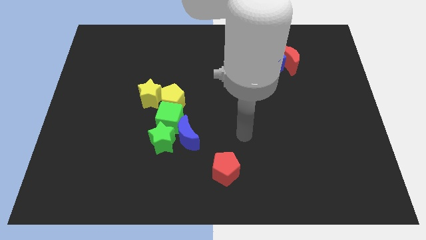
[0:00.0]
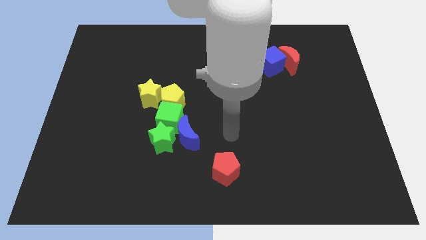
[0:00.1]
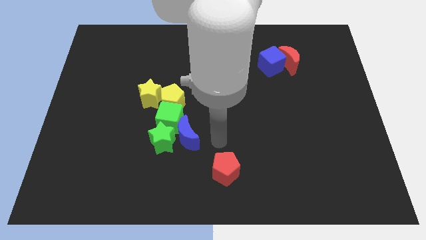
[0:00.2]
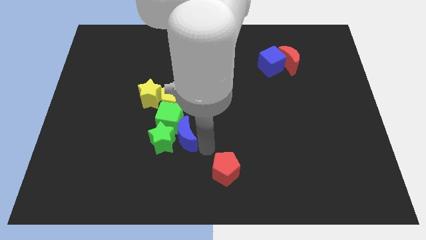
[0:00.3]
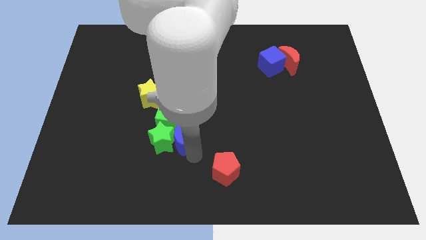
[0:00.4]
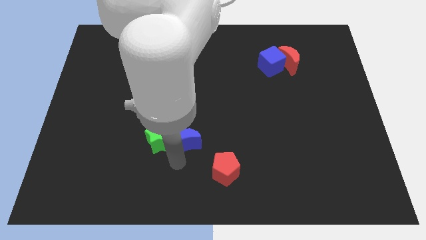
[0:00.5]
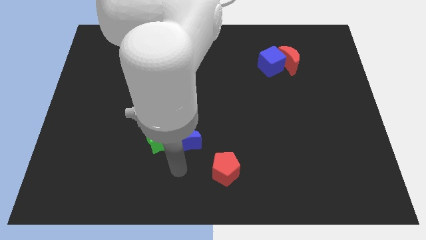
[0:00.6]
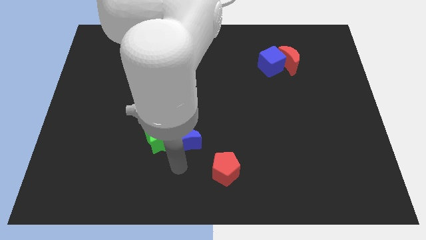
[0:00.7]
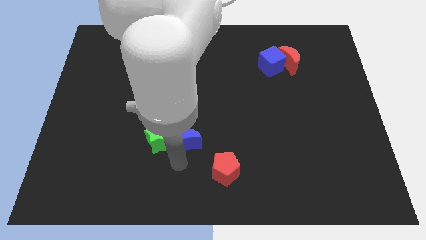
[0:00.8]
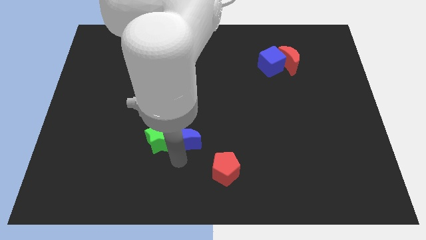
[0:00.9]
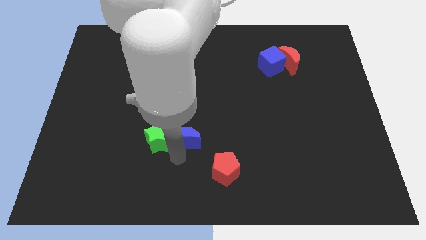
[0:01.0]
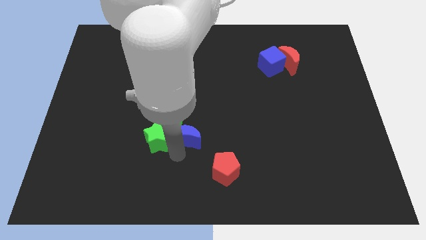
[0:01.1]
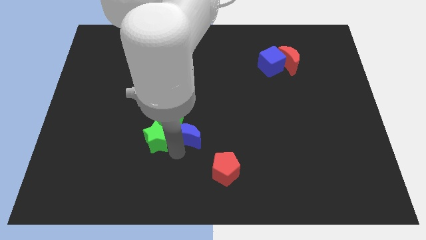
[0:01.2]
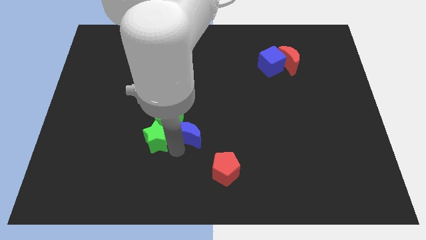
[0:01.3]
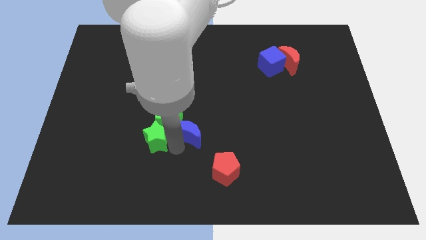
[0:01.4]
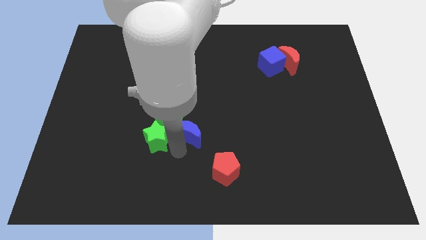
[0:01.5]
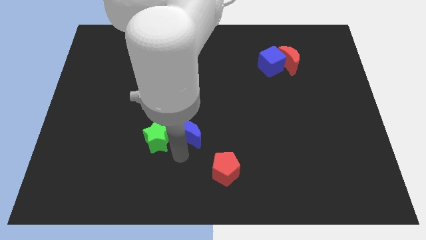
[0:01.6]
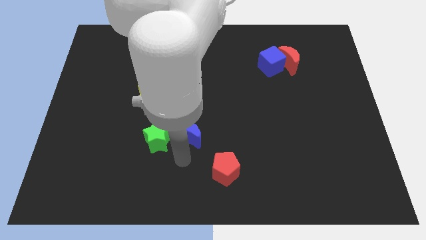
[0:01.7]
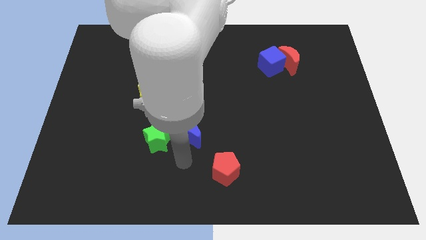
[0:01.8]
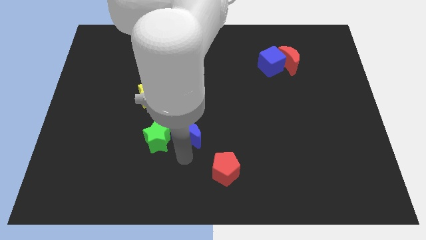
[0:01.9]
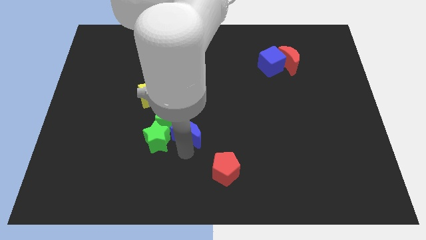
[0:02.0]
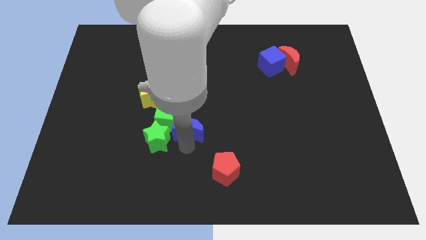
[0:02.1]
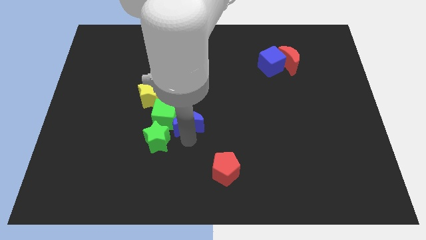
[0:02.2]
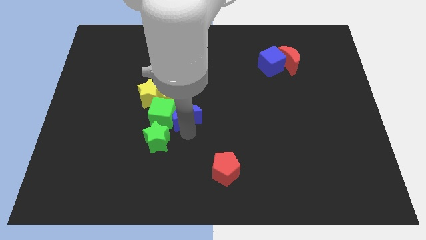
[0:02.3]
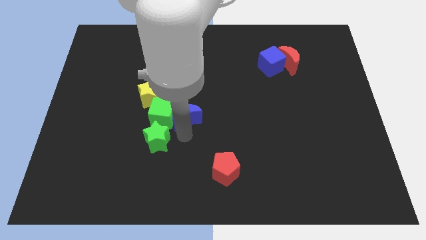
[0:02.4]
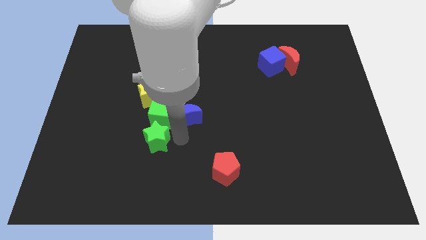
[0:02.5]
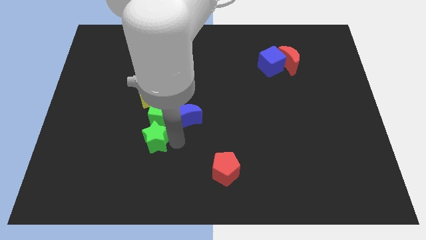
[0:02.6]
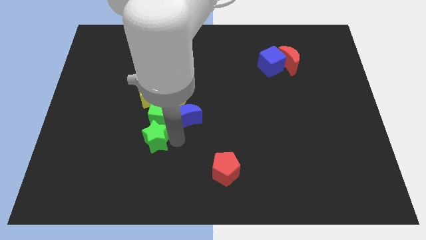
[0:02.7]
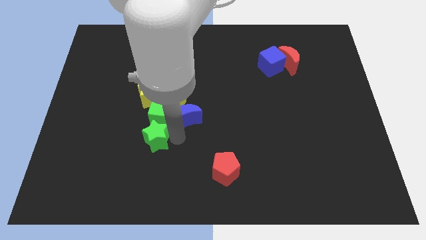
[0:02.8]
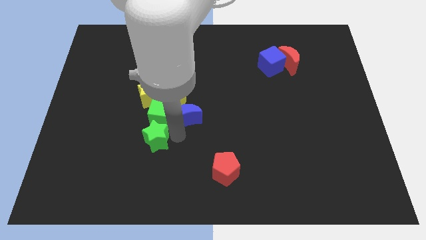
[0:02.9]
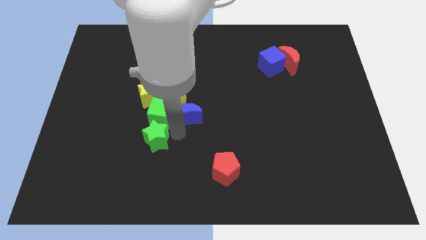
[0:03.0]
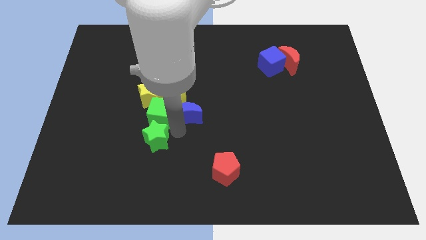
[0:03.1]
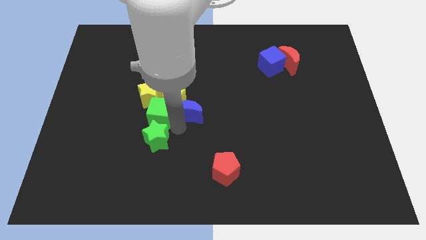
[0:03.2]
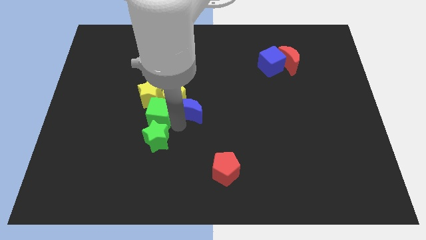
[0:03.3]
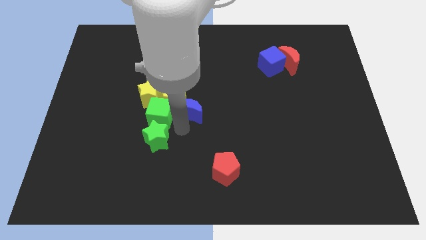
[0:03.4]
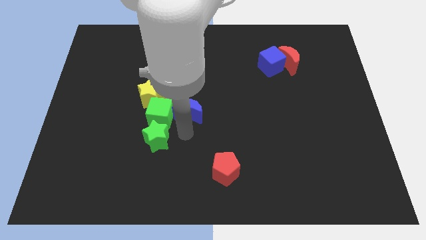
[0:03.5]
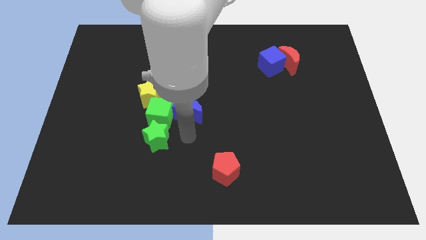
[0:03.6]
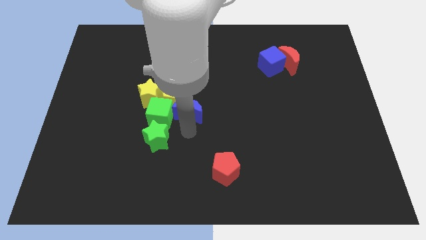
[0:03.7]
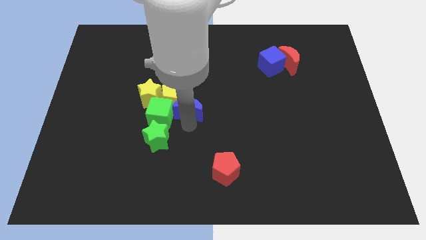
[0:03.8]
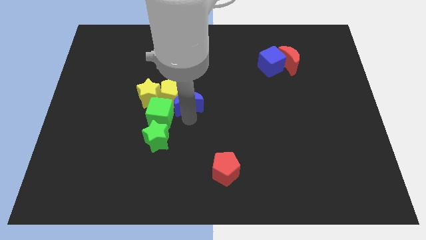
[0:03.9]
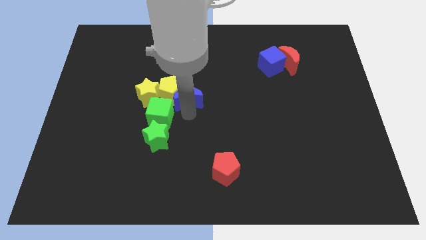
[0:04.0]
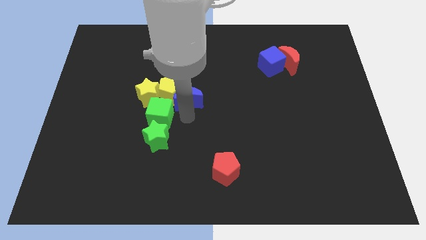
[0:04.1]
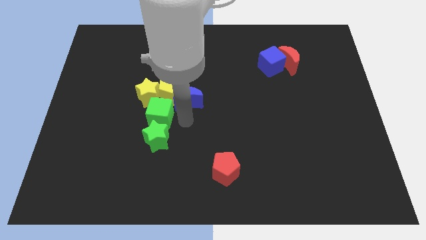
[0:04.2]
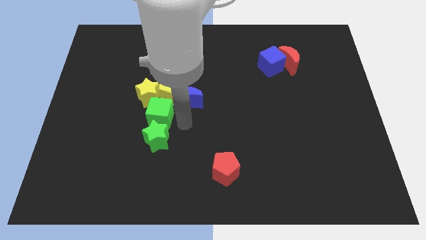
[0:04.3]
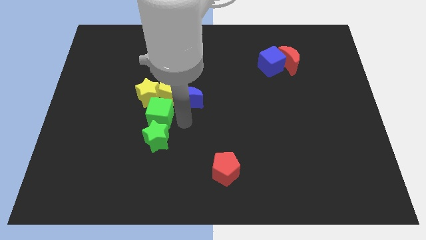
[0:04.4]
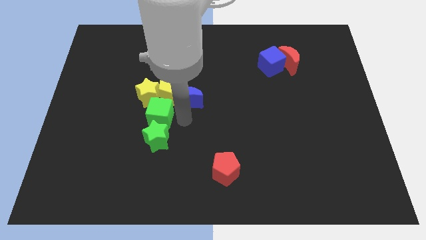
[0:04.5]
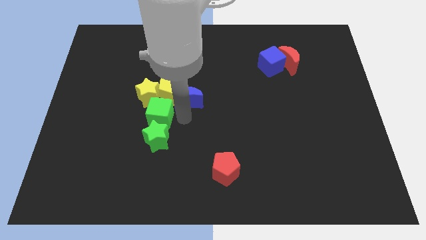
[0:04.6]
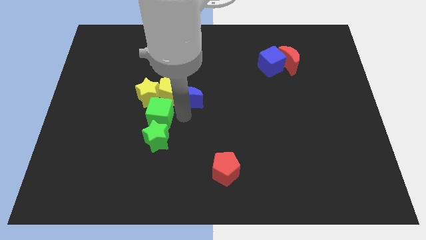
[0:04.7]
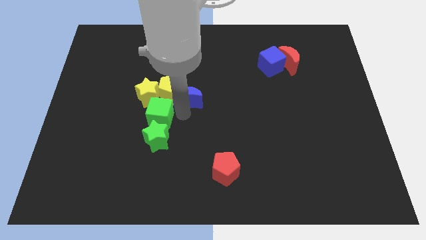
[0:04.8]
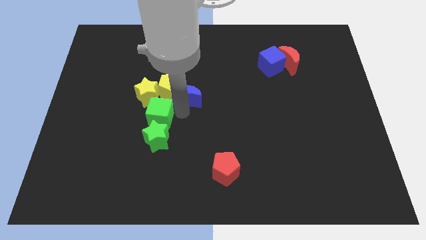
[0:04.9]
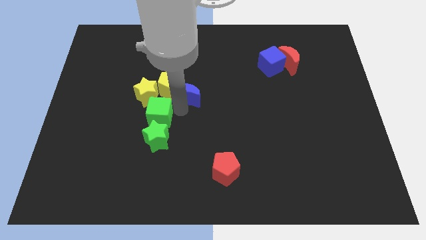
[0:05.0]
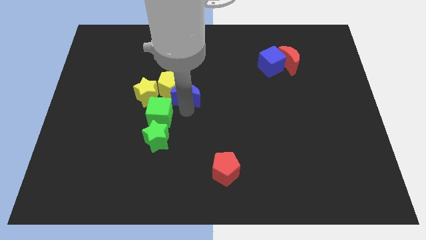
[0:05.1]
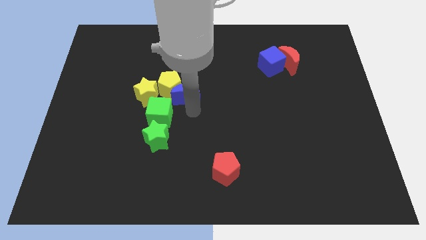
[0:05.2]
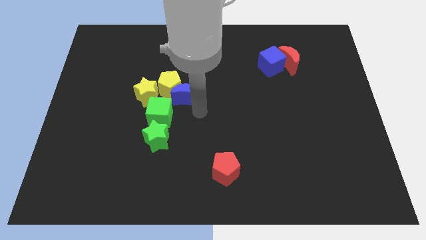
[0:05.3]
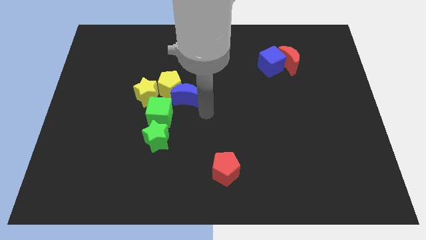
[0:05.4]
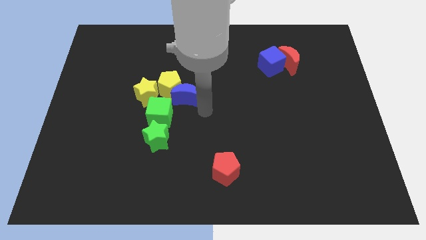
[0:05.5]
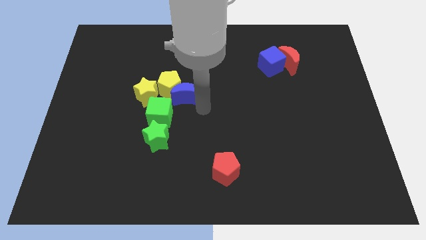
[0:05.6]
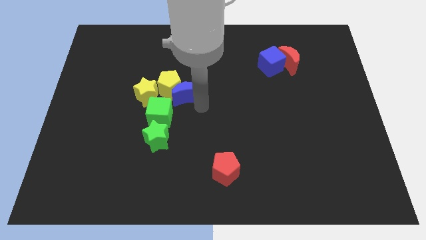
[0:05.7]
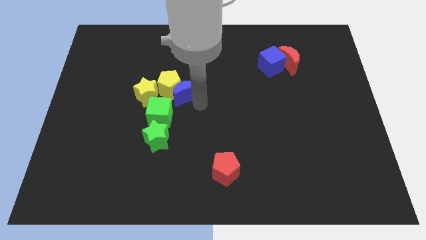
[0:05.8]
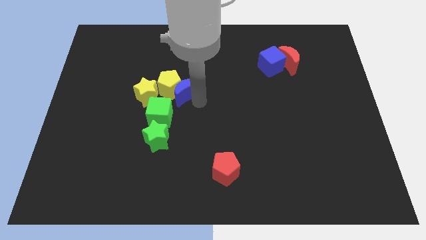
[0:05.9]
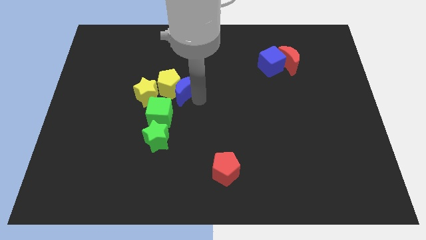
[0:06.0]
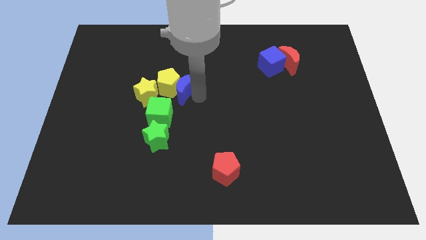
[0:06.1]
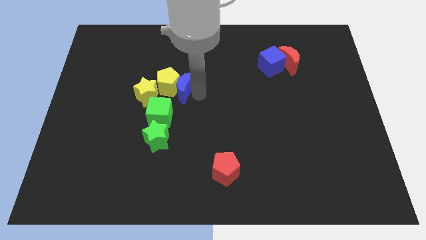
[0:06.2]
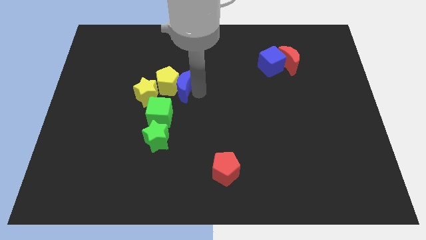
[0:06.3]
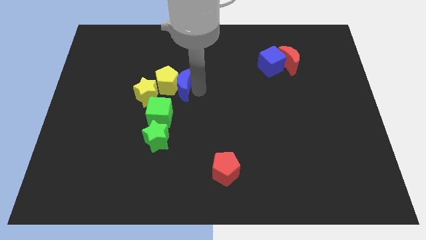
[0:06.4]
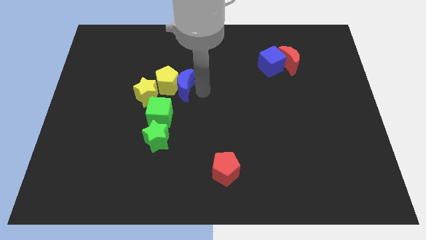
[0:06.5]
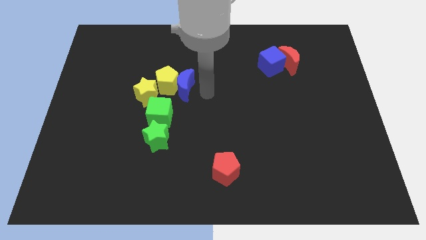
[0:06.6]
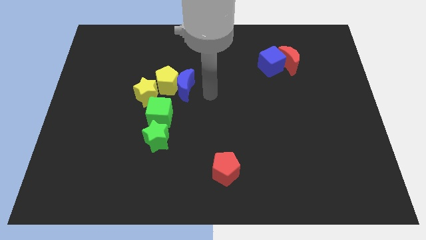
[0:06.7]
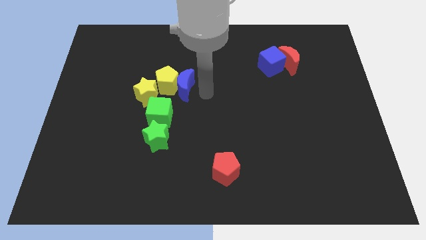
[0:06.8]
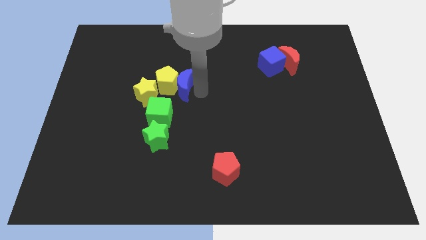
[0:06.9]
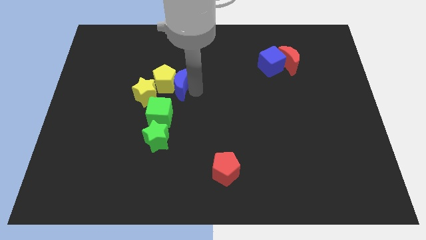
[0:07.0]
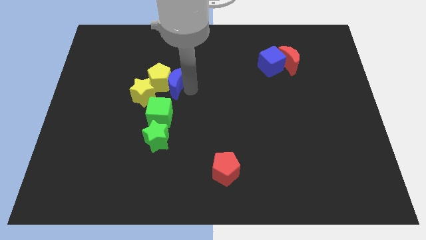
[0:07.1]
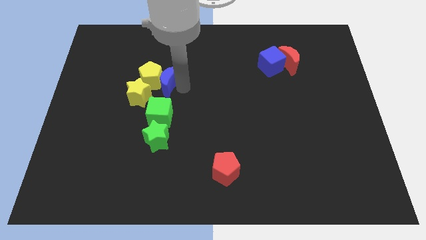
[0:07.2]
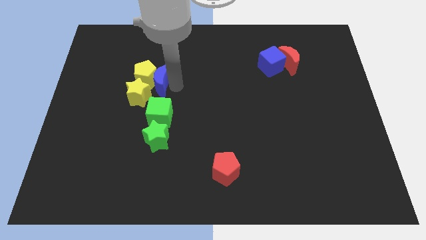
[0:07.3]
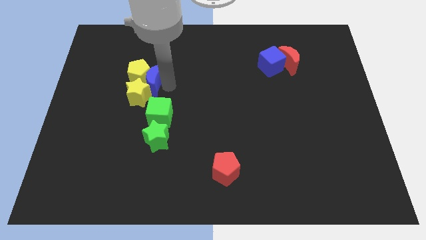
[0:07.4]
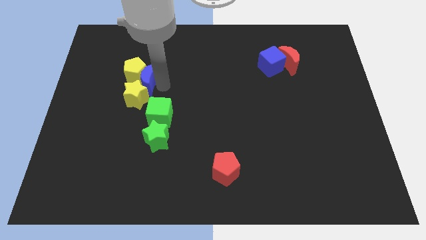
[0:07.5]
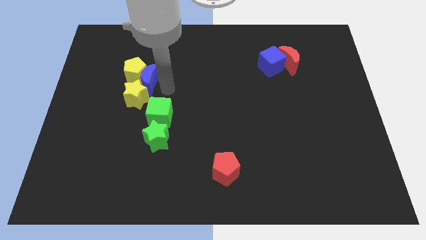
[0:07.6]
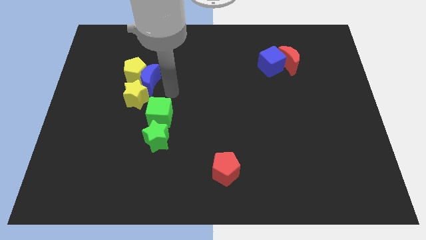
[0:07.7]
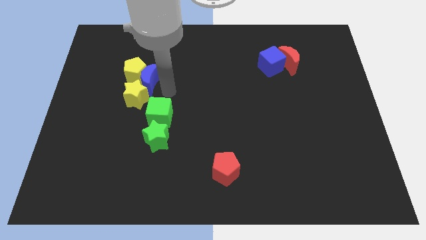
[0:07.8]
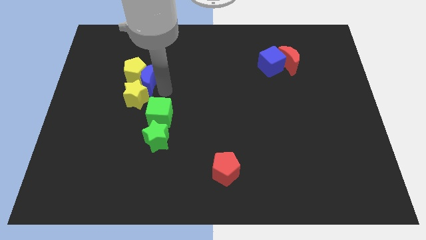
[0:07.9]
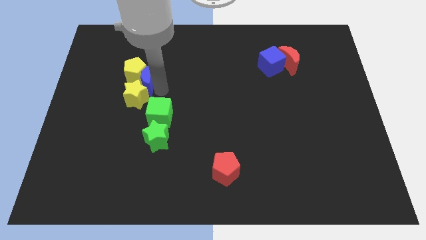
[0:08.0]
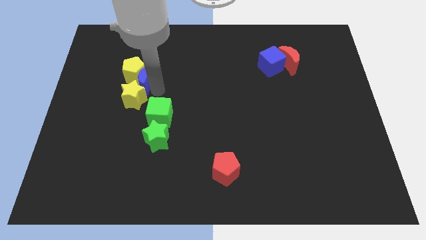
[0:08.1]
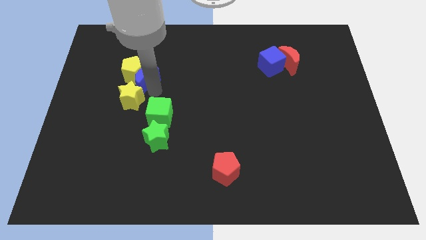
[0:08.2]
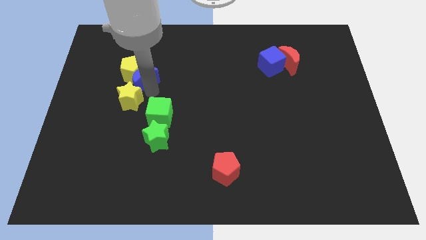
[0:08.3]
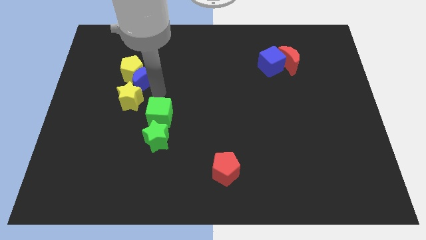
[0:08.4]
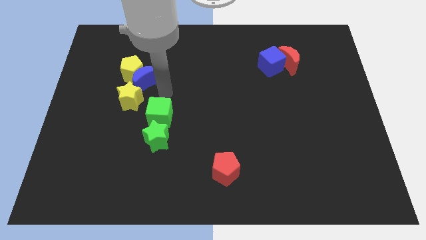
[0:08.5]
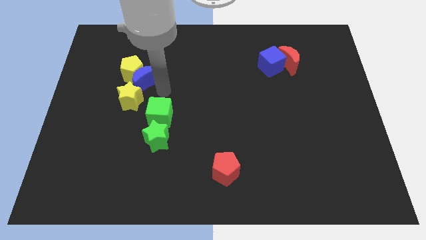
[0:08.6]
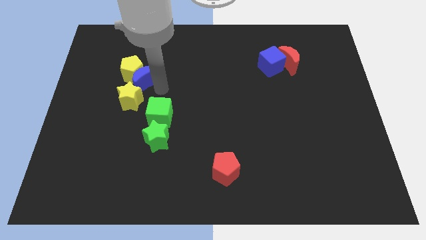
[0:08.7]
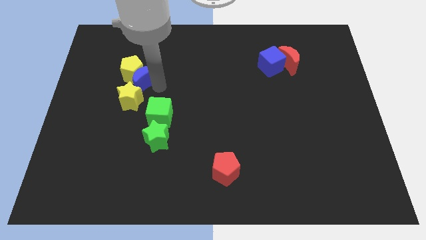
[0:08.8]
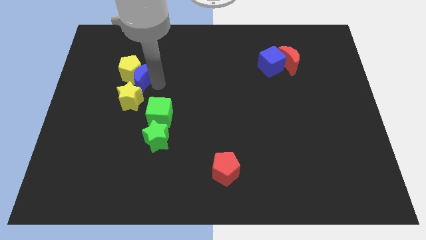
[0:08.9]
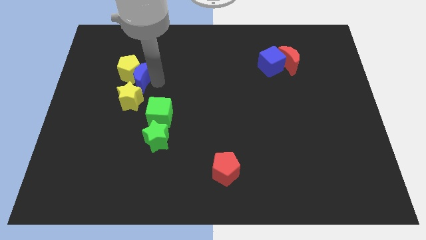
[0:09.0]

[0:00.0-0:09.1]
slide the blue moon diagonally upwards and left
